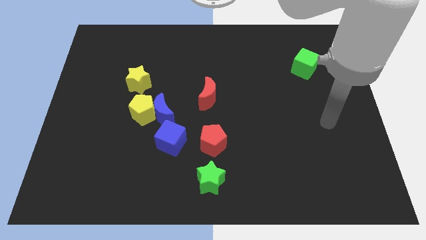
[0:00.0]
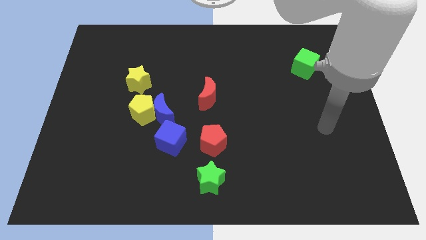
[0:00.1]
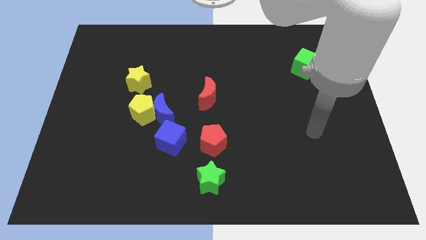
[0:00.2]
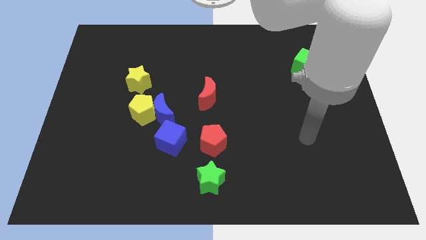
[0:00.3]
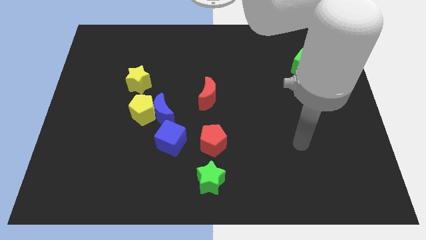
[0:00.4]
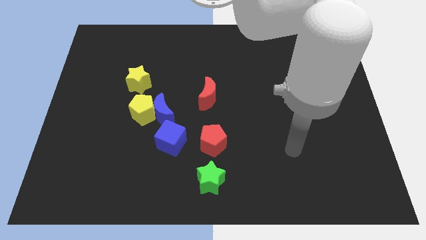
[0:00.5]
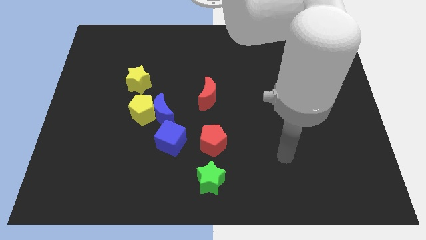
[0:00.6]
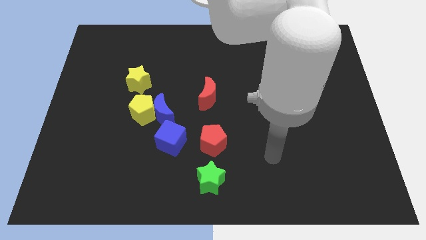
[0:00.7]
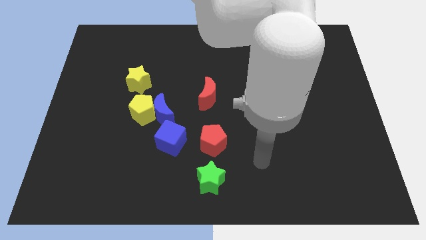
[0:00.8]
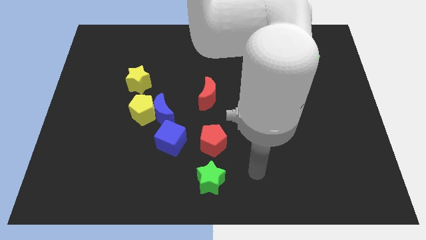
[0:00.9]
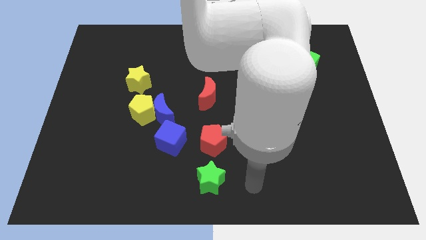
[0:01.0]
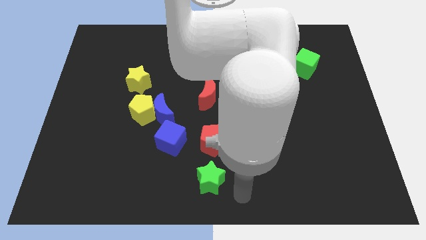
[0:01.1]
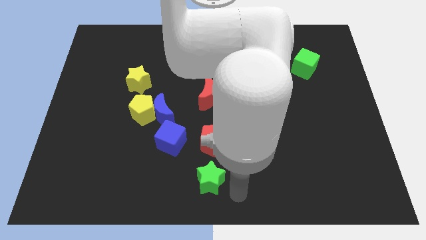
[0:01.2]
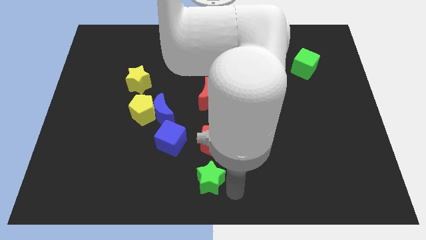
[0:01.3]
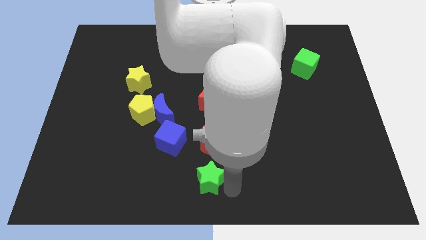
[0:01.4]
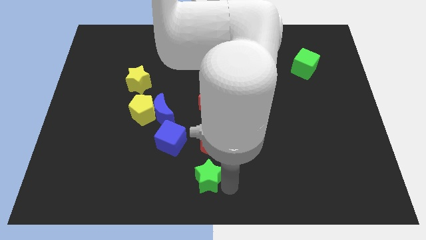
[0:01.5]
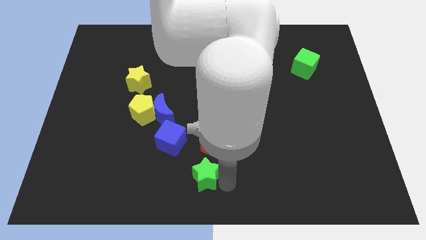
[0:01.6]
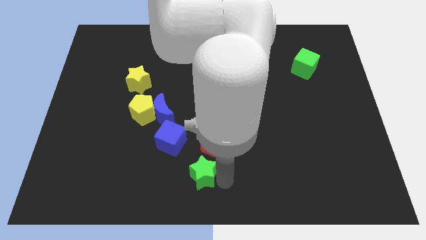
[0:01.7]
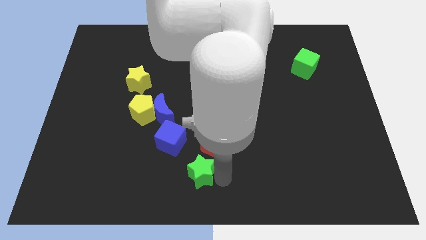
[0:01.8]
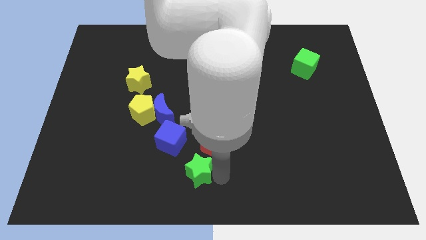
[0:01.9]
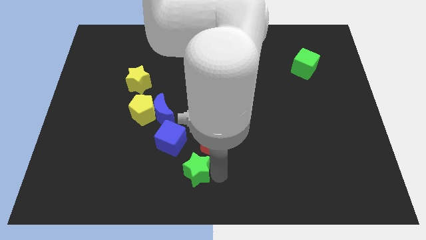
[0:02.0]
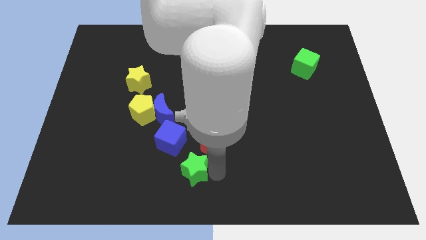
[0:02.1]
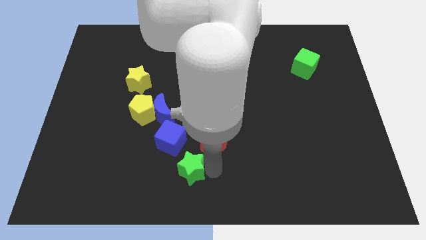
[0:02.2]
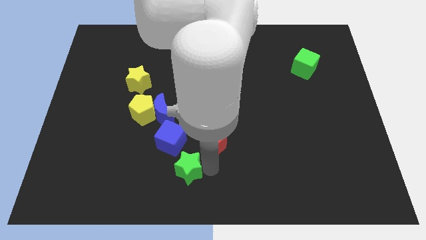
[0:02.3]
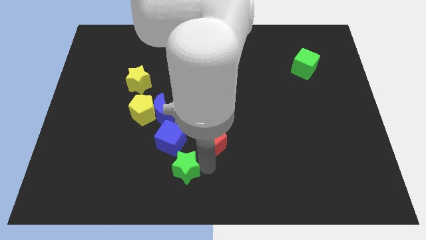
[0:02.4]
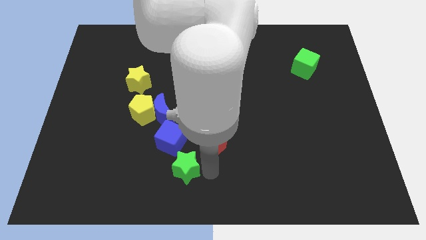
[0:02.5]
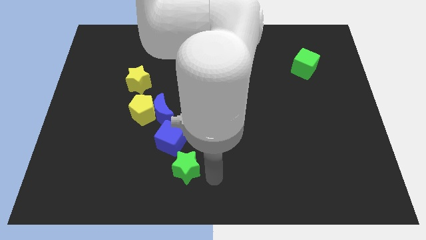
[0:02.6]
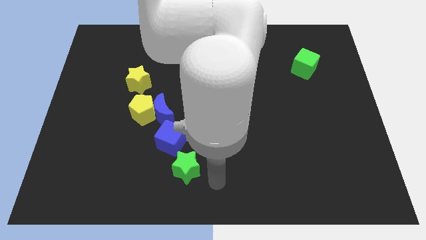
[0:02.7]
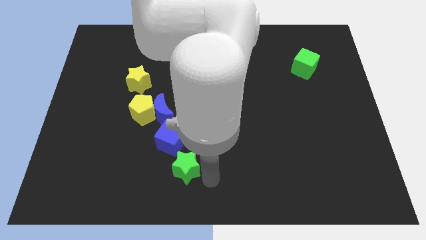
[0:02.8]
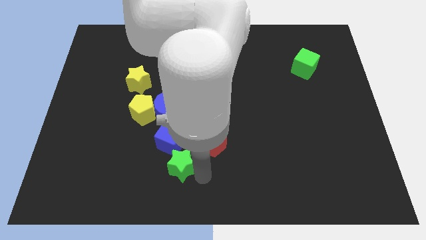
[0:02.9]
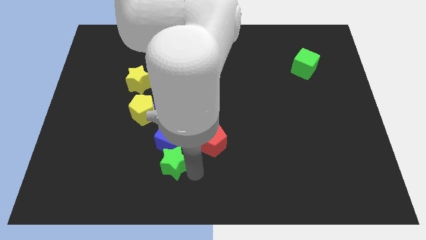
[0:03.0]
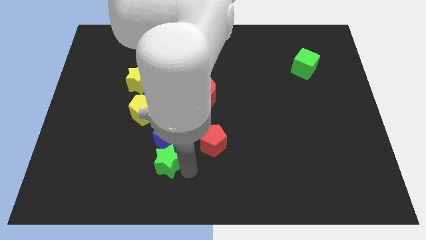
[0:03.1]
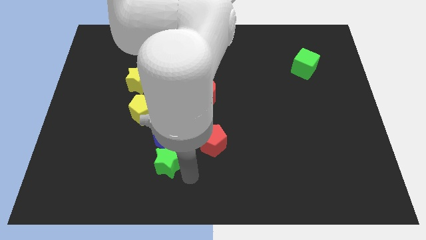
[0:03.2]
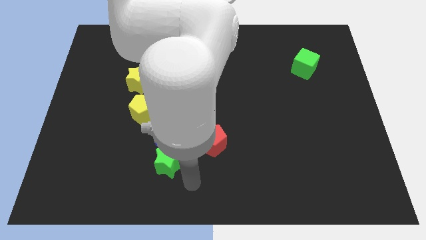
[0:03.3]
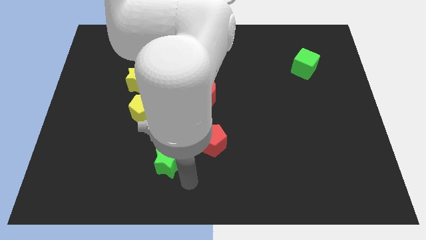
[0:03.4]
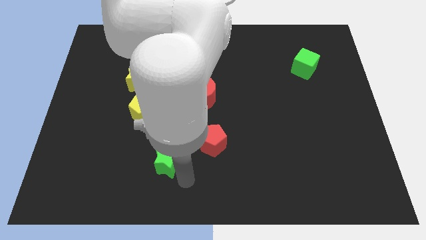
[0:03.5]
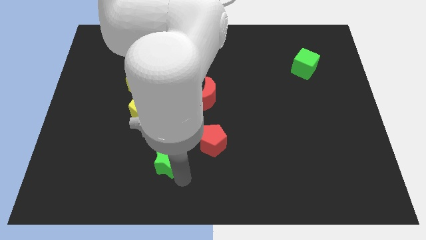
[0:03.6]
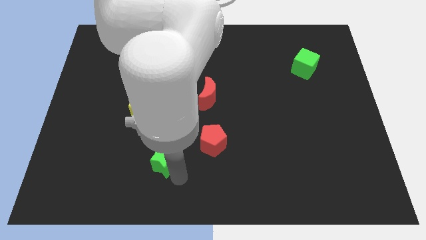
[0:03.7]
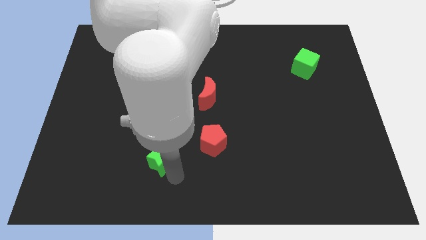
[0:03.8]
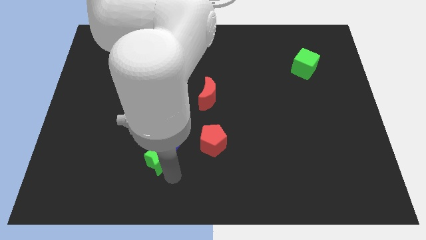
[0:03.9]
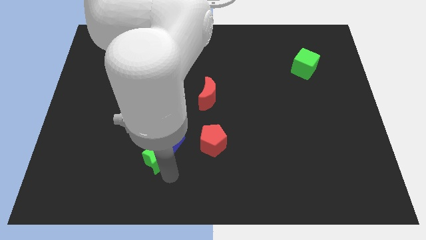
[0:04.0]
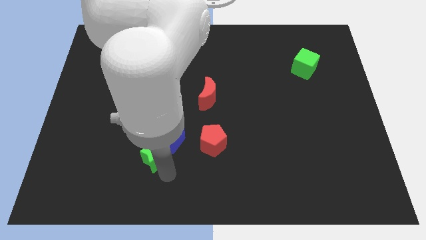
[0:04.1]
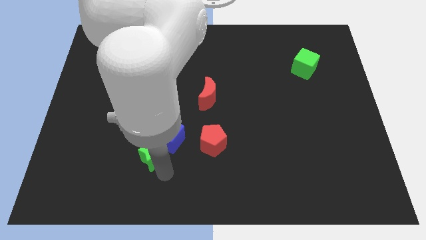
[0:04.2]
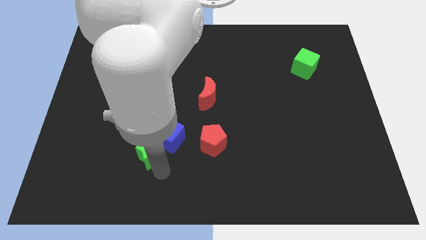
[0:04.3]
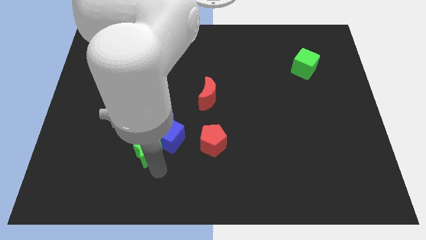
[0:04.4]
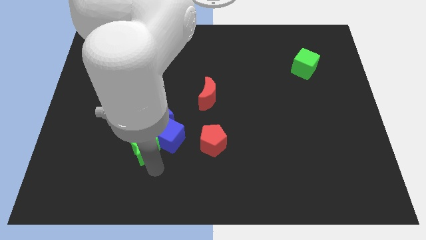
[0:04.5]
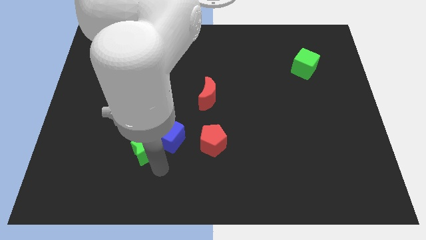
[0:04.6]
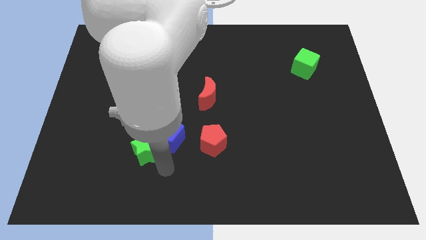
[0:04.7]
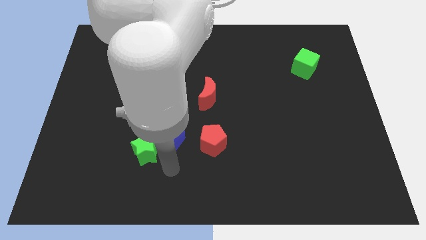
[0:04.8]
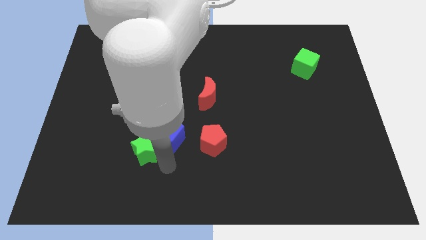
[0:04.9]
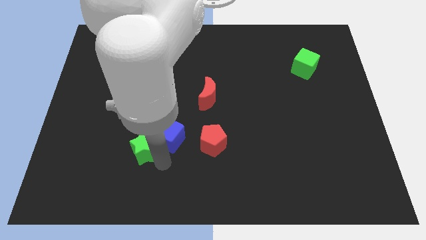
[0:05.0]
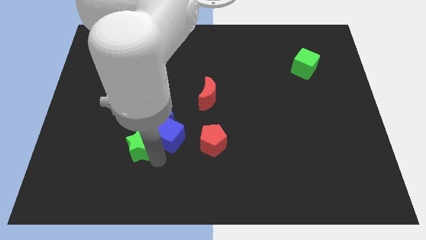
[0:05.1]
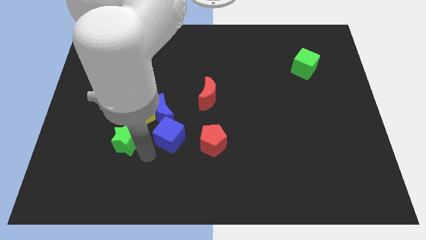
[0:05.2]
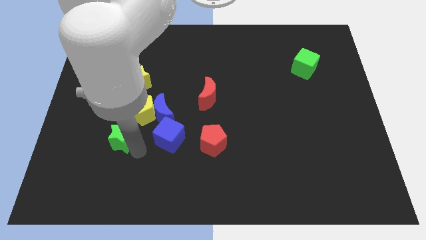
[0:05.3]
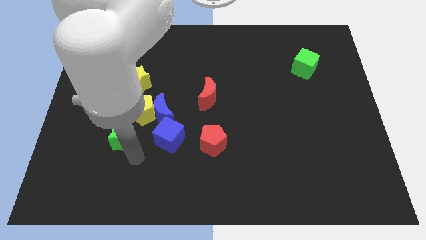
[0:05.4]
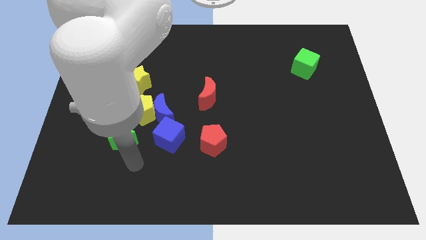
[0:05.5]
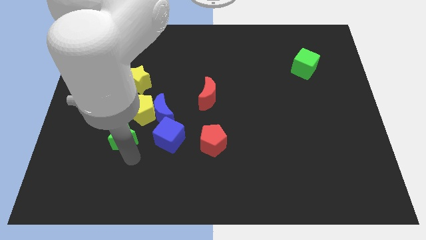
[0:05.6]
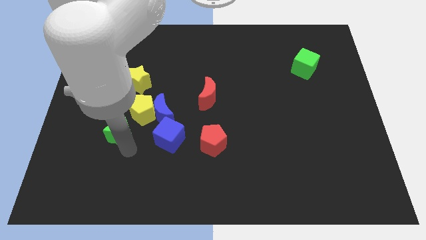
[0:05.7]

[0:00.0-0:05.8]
push the green star diagonally upwards and to the left

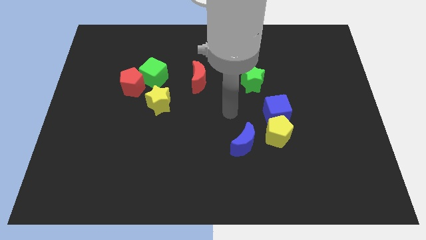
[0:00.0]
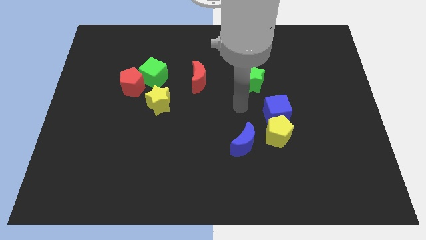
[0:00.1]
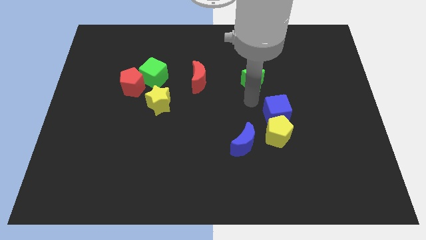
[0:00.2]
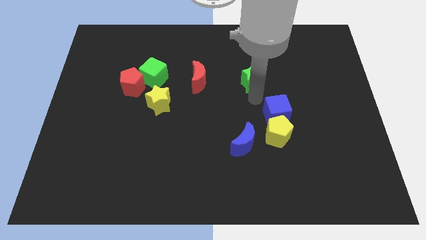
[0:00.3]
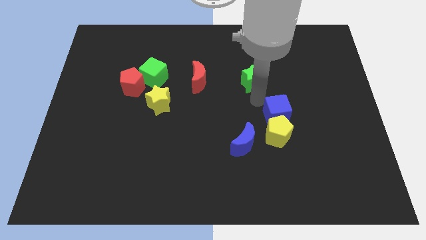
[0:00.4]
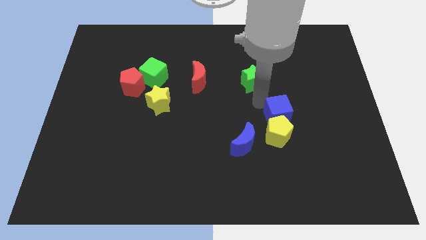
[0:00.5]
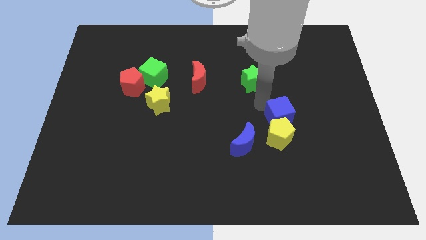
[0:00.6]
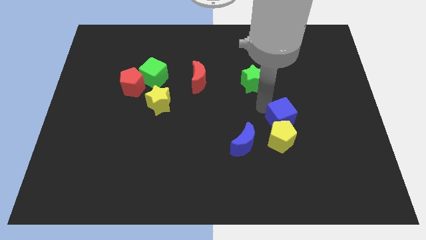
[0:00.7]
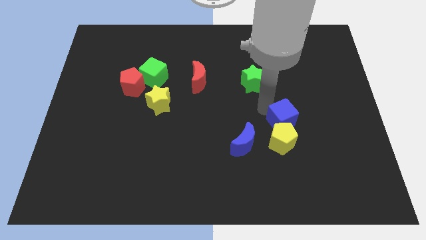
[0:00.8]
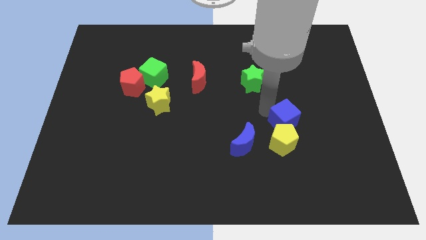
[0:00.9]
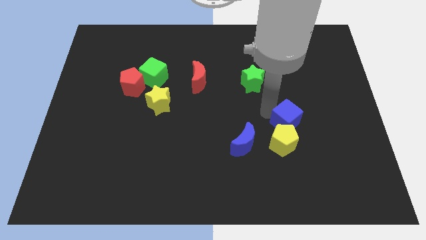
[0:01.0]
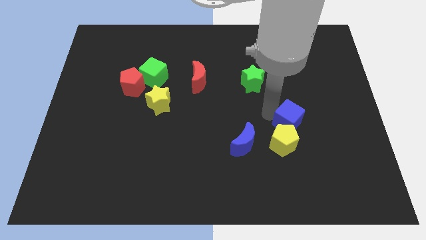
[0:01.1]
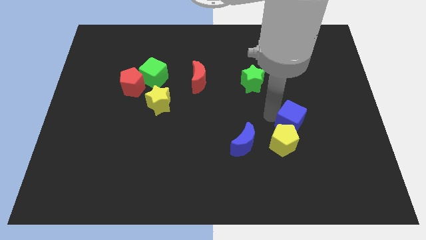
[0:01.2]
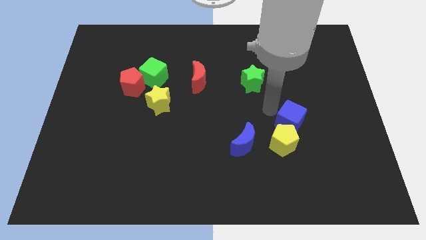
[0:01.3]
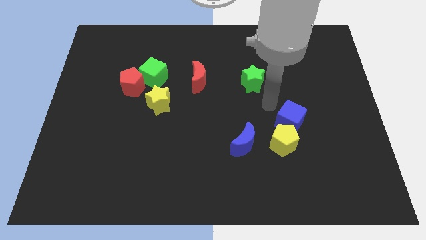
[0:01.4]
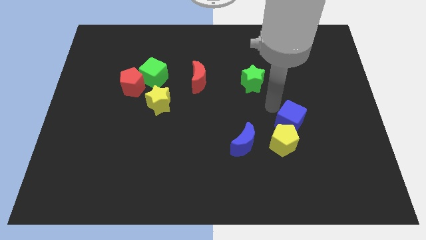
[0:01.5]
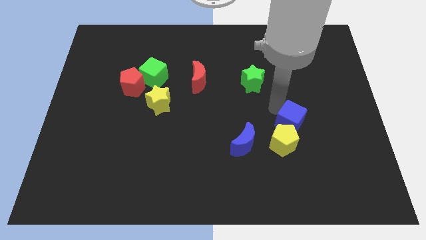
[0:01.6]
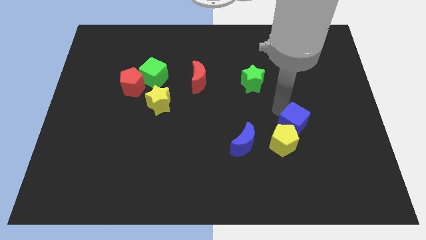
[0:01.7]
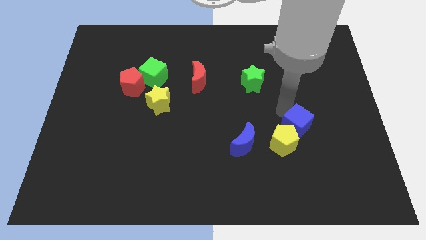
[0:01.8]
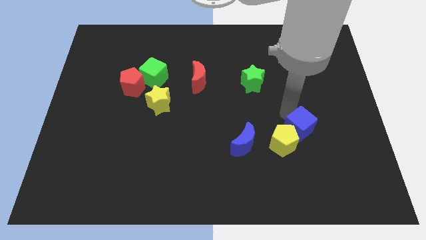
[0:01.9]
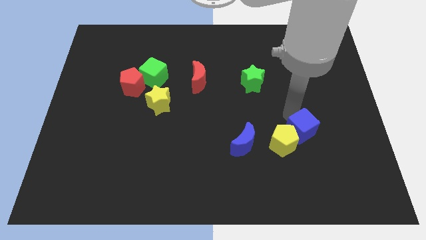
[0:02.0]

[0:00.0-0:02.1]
slide the blue cube down and right a little

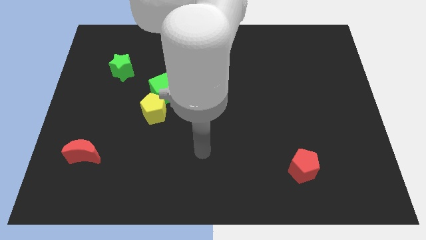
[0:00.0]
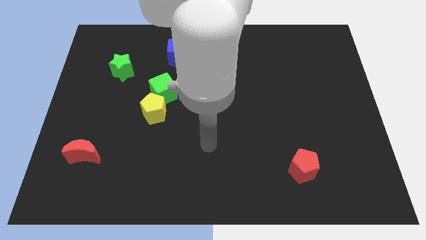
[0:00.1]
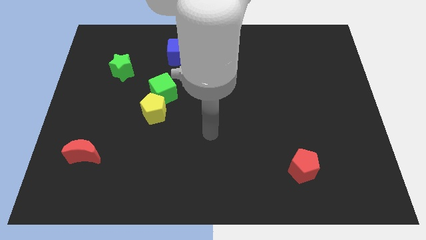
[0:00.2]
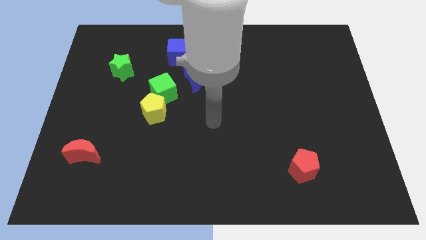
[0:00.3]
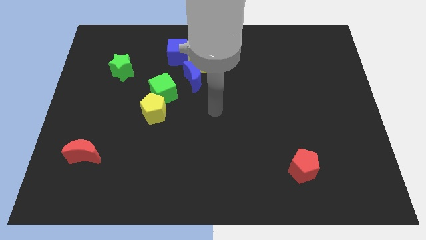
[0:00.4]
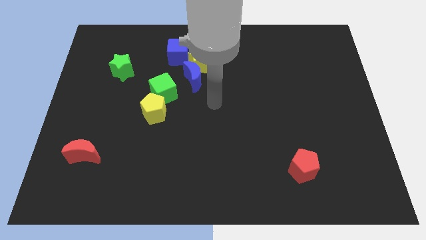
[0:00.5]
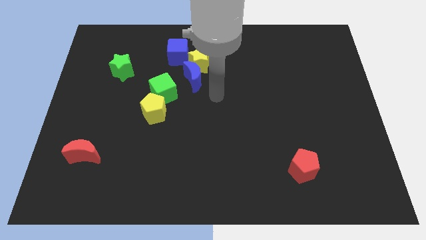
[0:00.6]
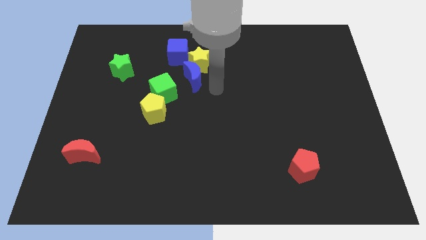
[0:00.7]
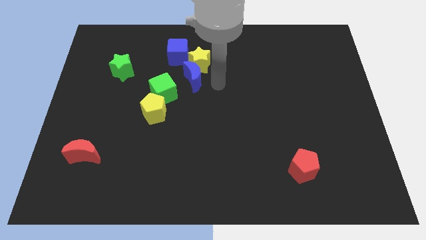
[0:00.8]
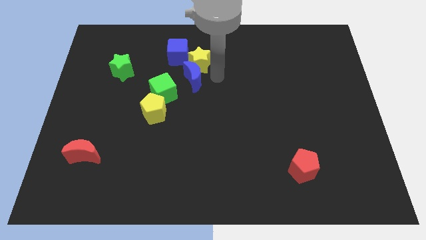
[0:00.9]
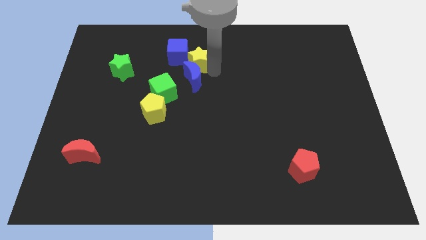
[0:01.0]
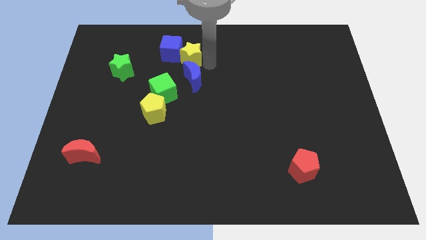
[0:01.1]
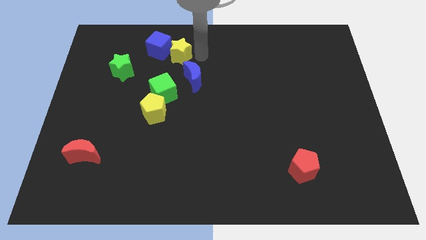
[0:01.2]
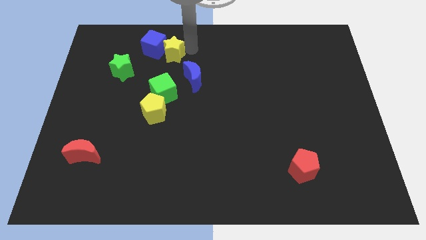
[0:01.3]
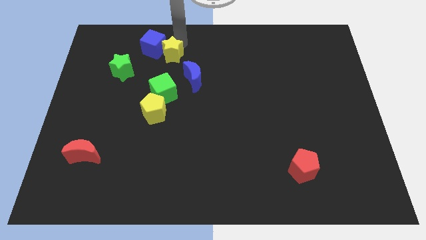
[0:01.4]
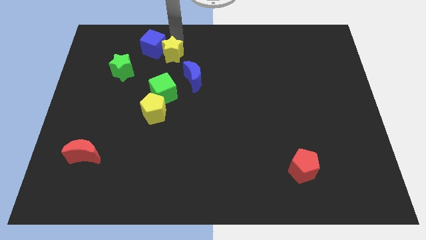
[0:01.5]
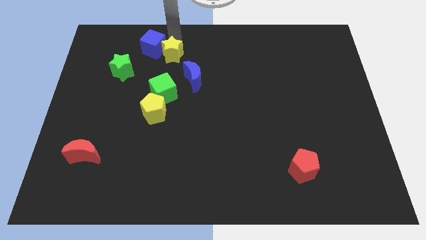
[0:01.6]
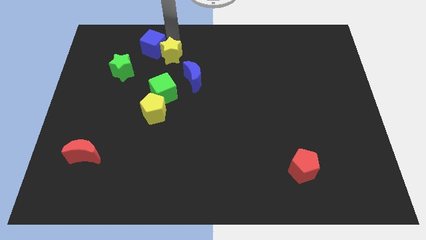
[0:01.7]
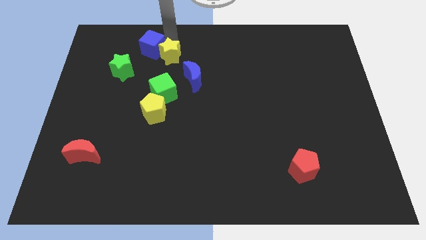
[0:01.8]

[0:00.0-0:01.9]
slightly move the blue cube left
